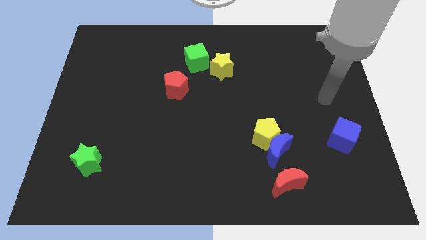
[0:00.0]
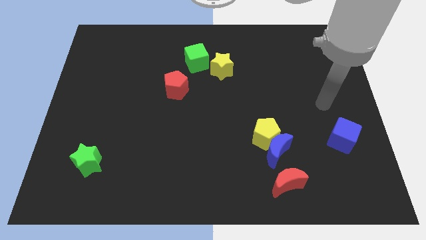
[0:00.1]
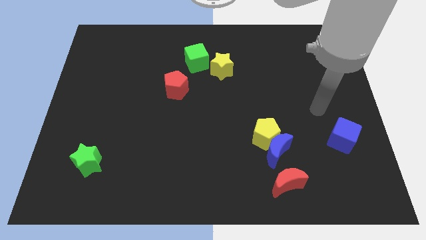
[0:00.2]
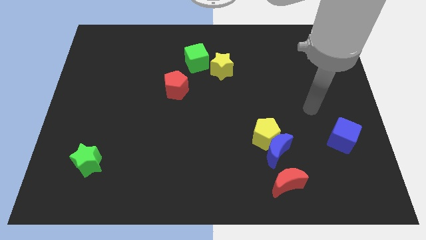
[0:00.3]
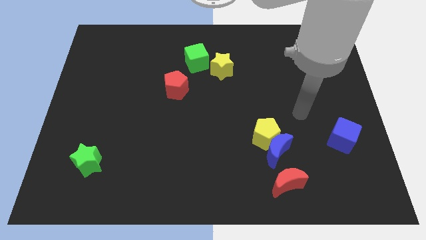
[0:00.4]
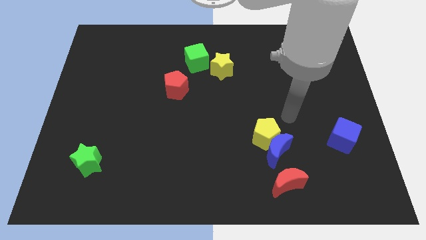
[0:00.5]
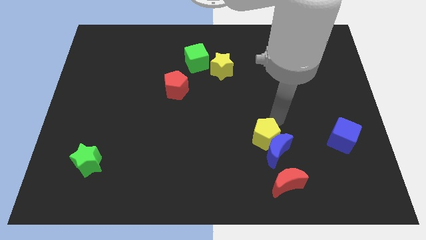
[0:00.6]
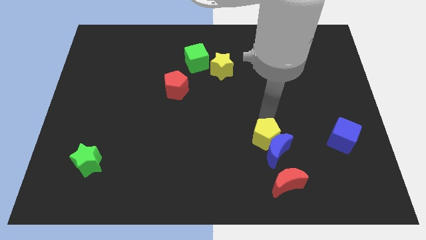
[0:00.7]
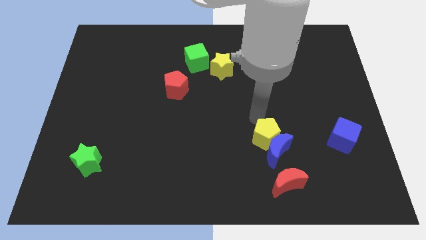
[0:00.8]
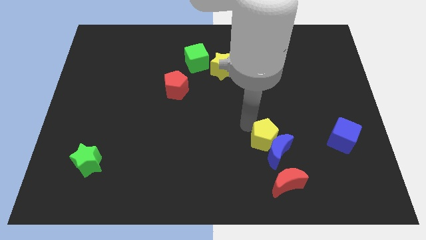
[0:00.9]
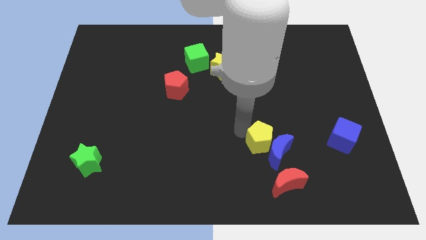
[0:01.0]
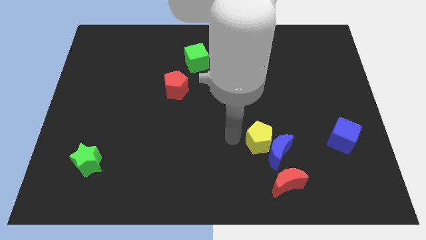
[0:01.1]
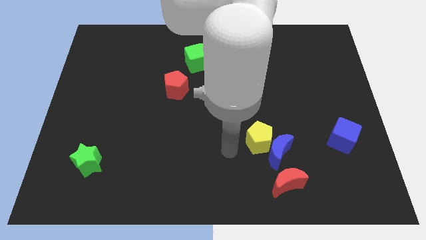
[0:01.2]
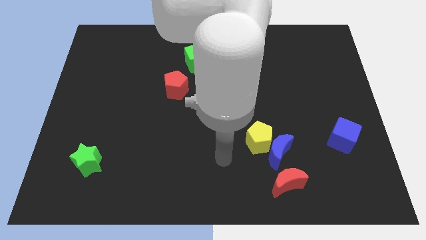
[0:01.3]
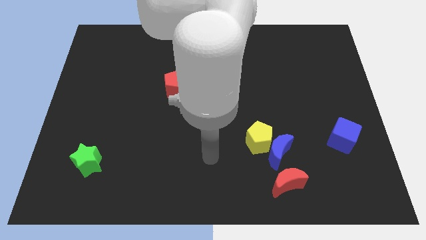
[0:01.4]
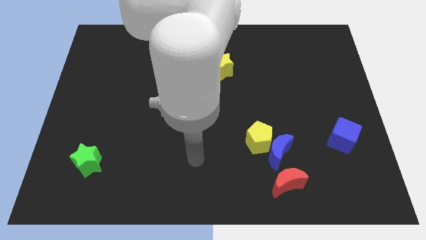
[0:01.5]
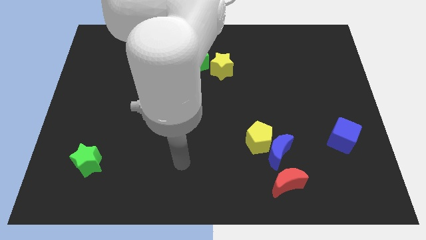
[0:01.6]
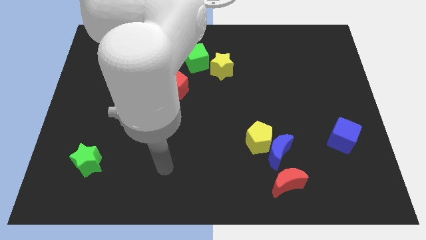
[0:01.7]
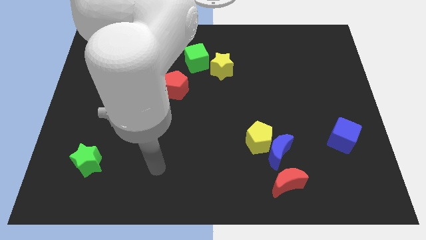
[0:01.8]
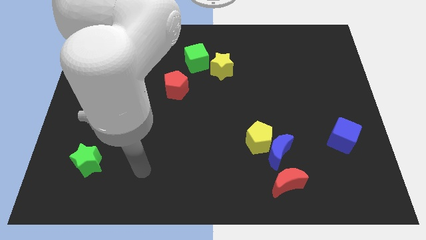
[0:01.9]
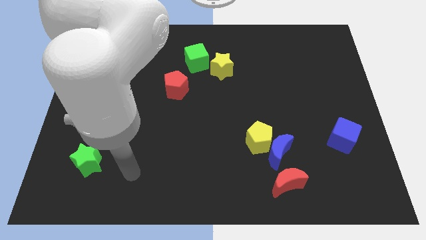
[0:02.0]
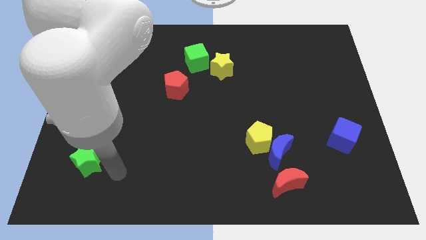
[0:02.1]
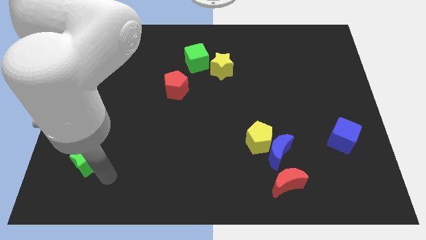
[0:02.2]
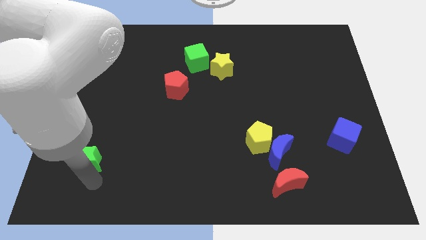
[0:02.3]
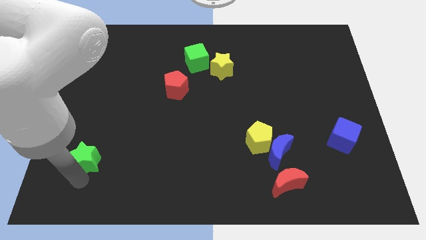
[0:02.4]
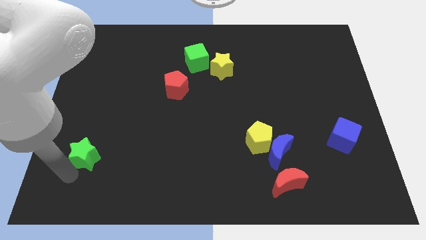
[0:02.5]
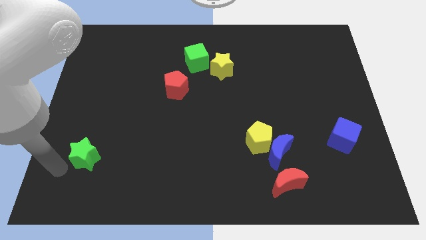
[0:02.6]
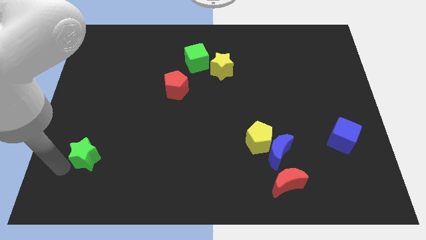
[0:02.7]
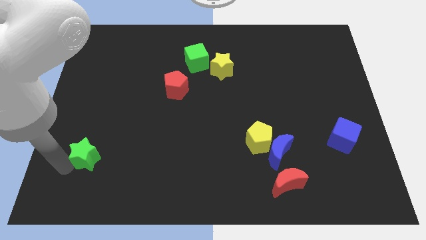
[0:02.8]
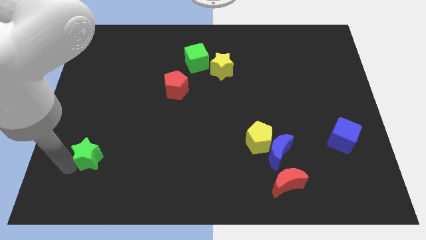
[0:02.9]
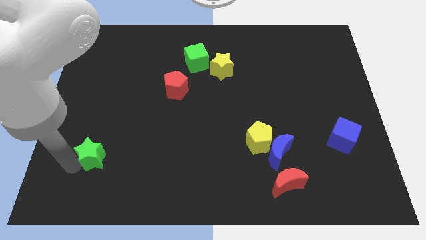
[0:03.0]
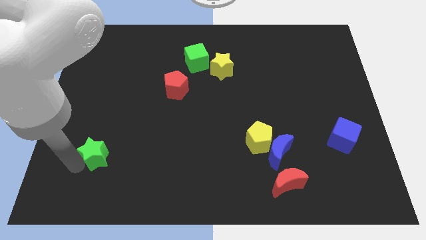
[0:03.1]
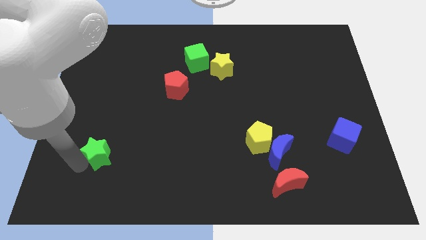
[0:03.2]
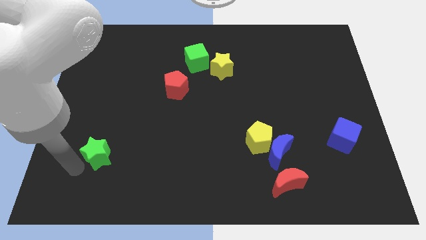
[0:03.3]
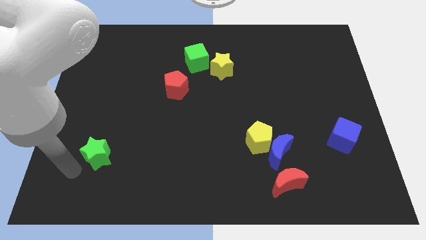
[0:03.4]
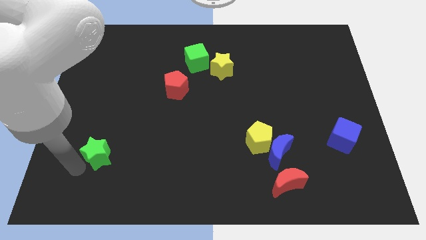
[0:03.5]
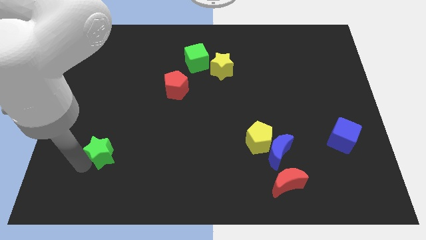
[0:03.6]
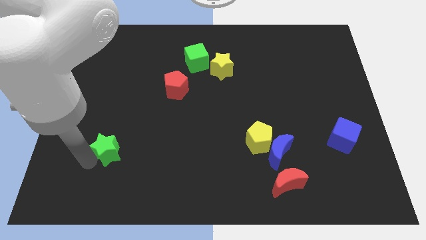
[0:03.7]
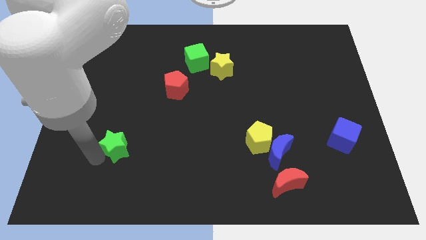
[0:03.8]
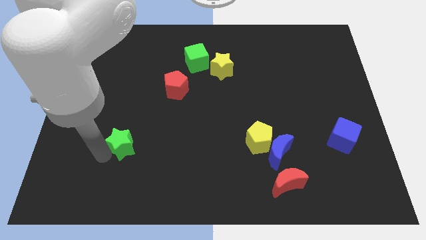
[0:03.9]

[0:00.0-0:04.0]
move the green star somewhat upwards and to the right diagonally

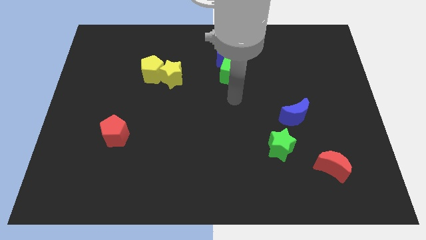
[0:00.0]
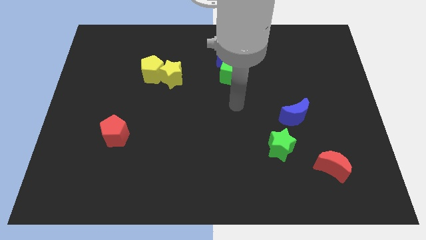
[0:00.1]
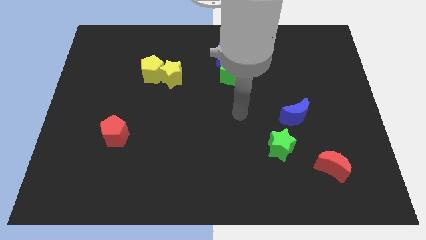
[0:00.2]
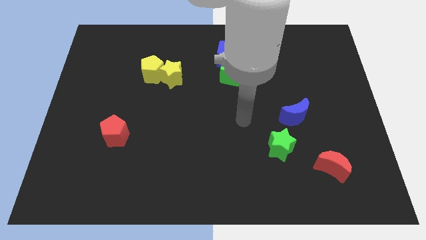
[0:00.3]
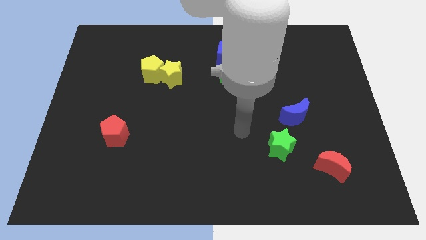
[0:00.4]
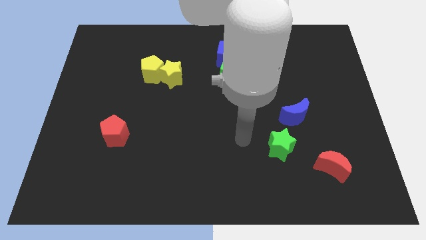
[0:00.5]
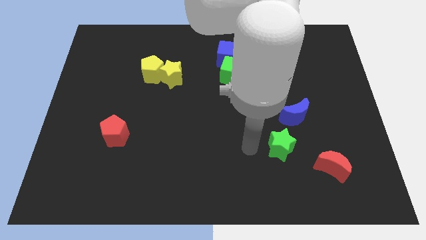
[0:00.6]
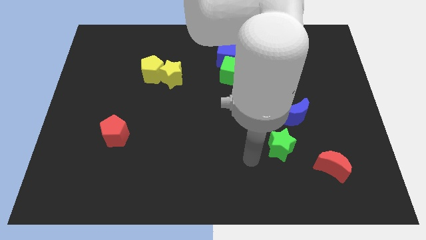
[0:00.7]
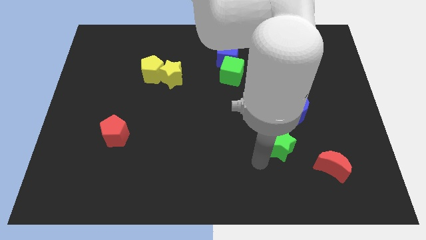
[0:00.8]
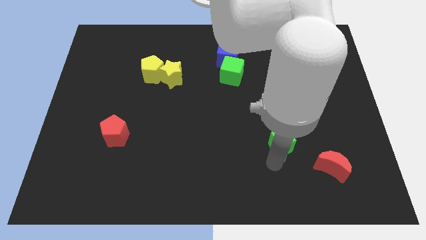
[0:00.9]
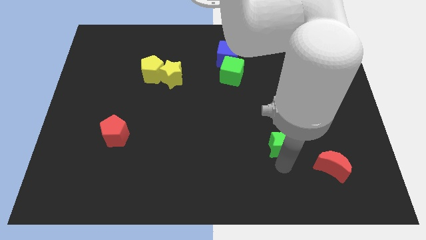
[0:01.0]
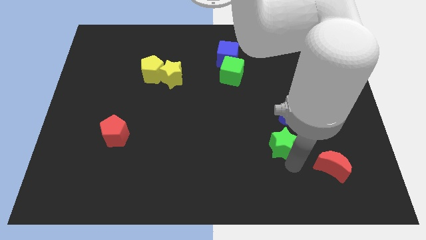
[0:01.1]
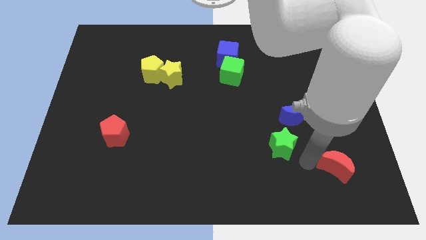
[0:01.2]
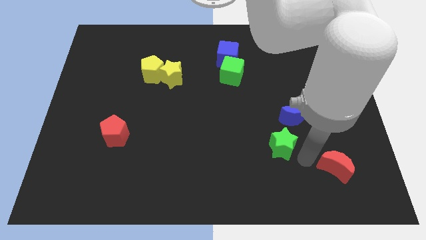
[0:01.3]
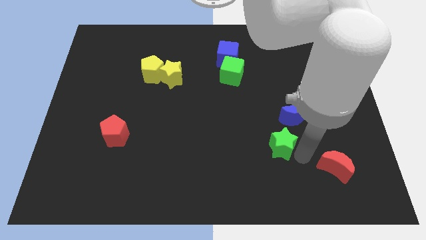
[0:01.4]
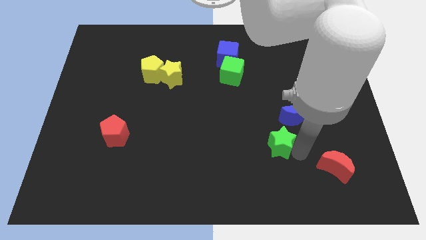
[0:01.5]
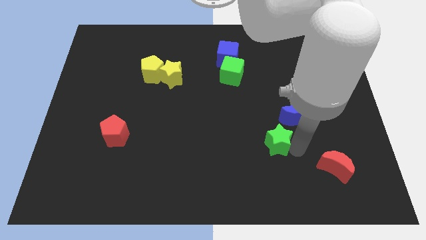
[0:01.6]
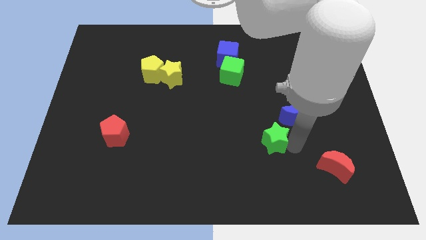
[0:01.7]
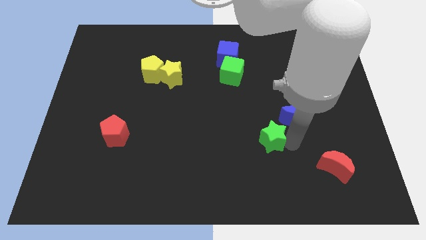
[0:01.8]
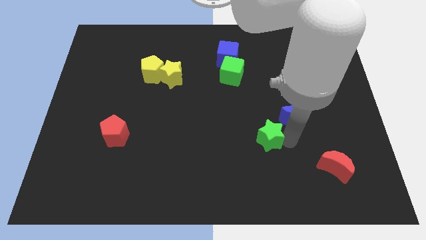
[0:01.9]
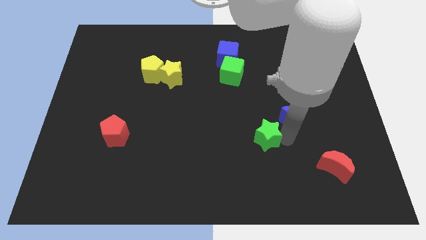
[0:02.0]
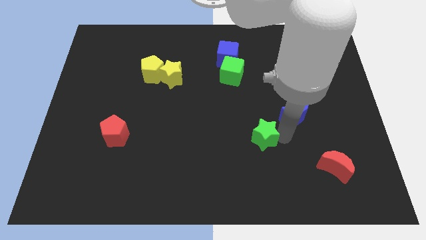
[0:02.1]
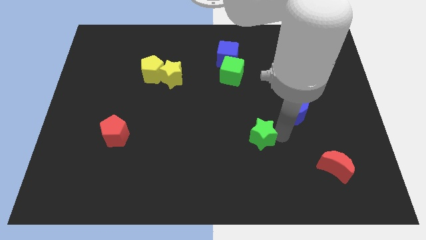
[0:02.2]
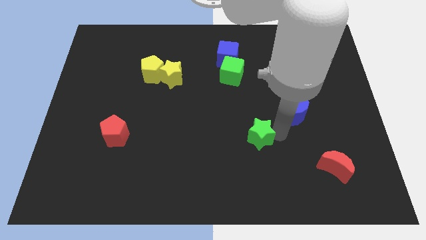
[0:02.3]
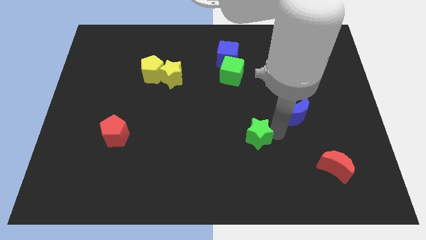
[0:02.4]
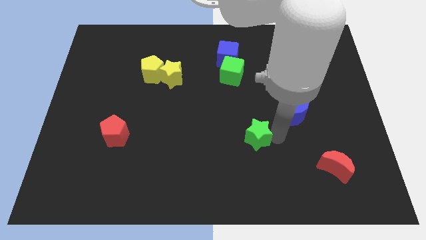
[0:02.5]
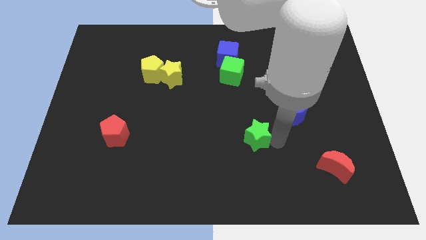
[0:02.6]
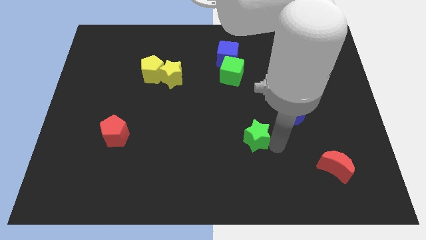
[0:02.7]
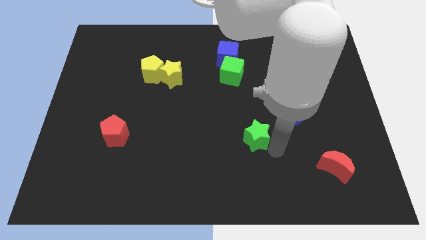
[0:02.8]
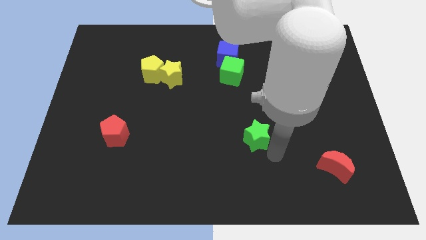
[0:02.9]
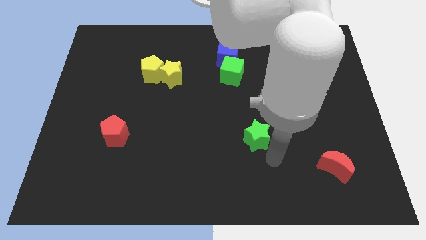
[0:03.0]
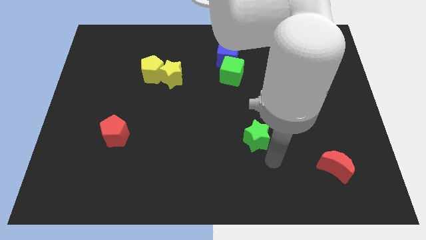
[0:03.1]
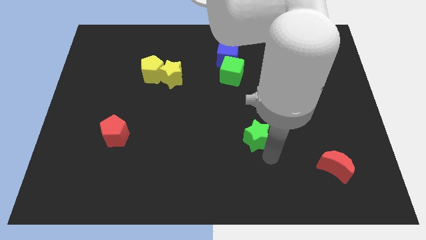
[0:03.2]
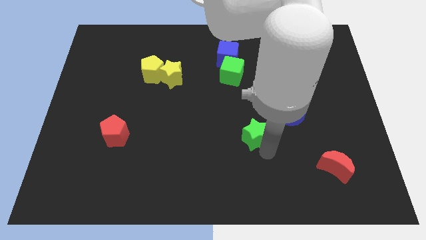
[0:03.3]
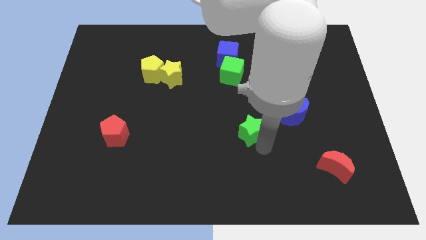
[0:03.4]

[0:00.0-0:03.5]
slightly push the green star upwards and left diagonally

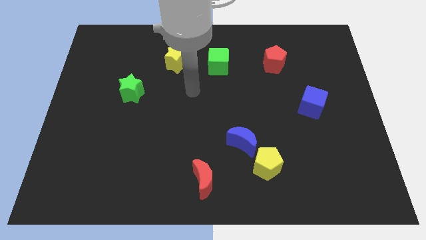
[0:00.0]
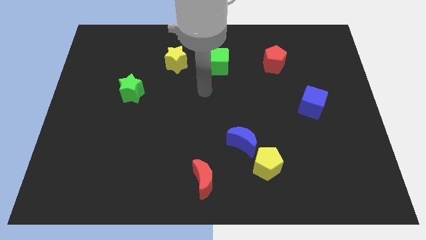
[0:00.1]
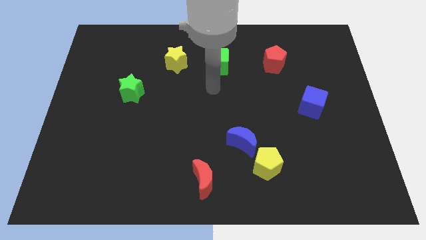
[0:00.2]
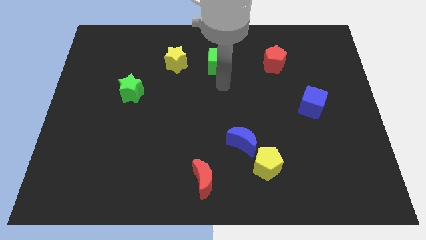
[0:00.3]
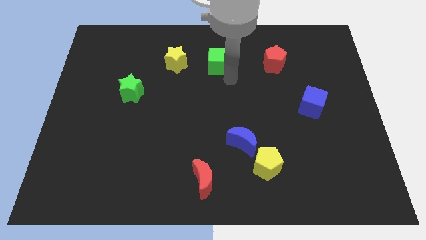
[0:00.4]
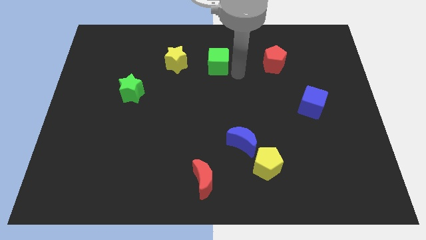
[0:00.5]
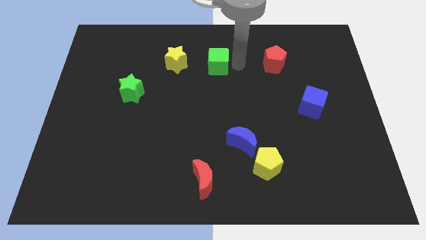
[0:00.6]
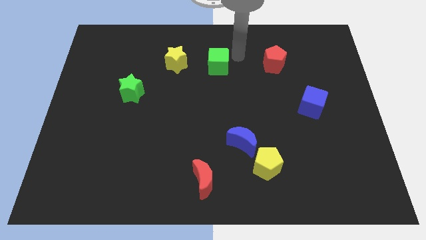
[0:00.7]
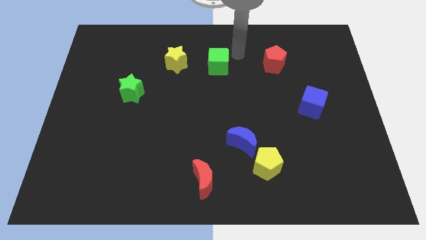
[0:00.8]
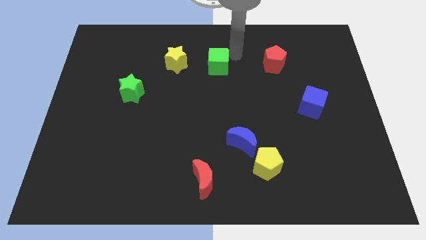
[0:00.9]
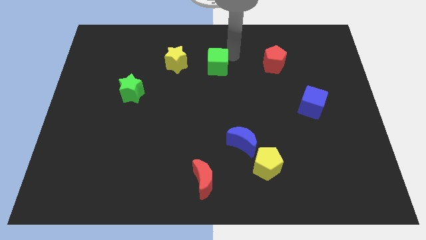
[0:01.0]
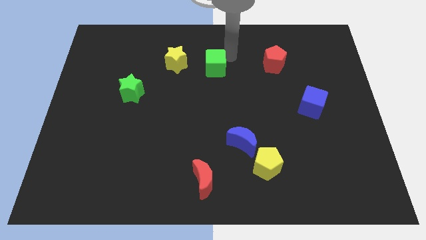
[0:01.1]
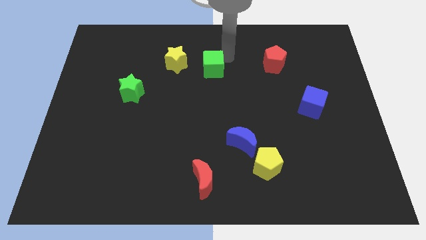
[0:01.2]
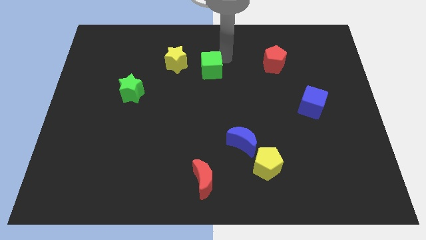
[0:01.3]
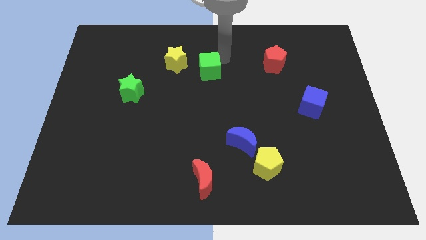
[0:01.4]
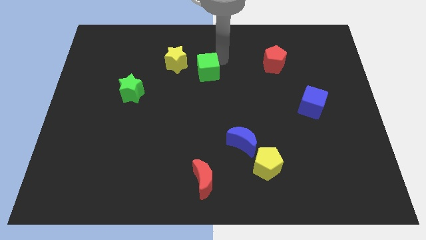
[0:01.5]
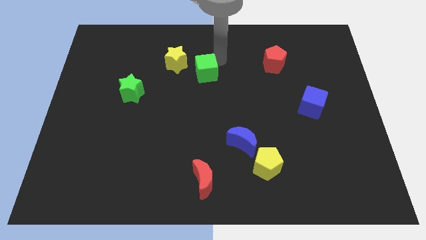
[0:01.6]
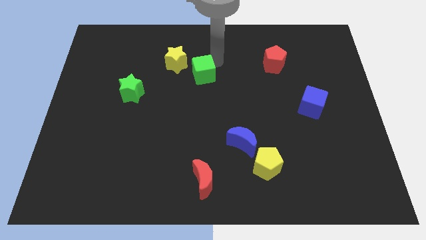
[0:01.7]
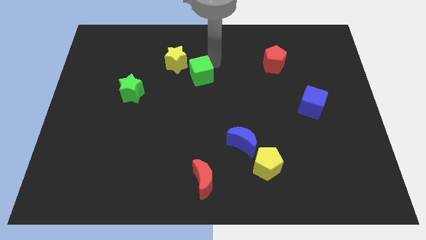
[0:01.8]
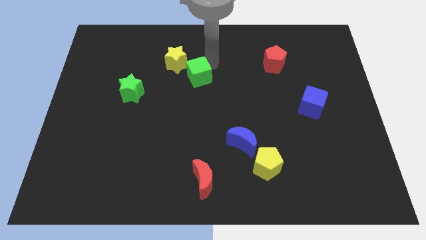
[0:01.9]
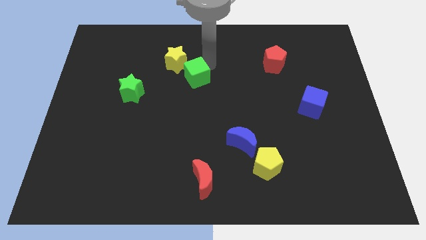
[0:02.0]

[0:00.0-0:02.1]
slightly push the green cube down and then to the left
